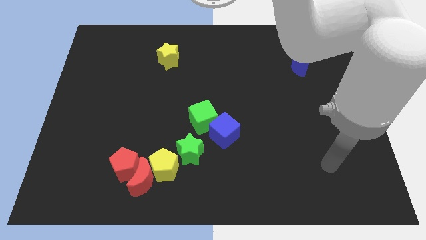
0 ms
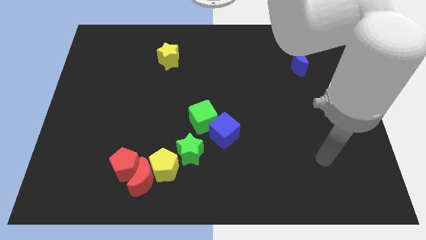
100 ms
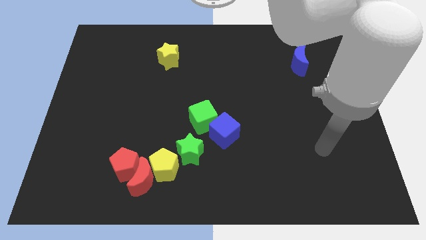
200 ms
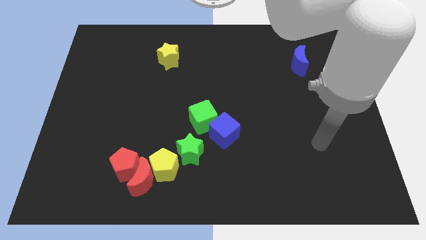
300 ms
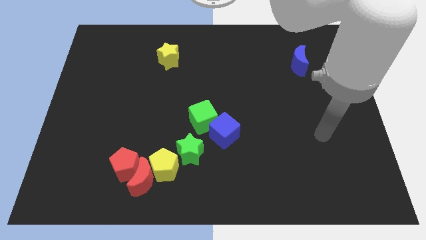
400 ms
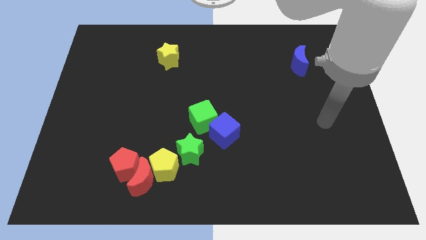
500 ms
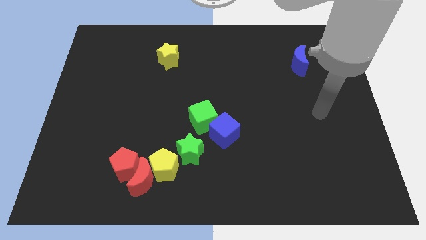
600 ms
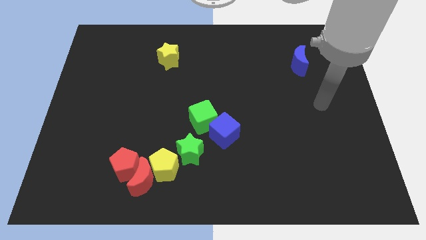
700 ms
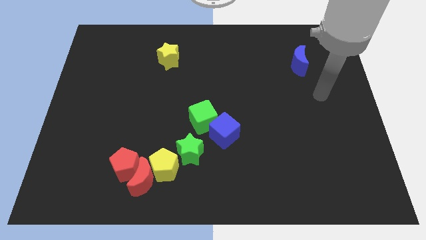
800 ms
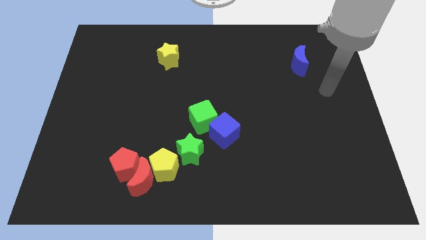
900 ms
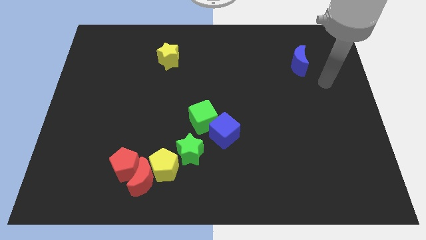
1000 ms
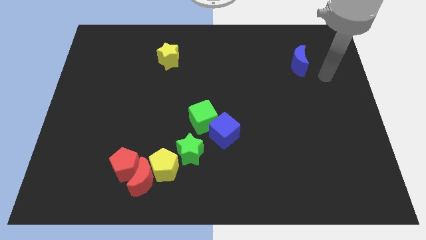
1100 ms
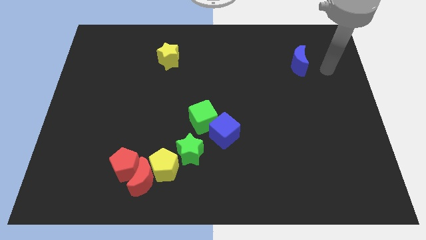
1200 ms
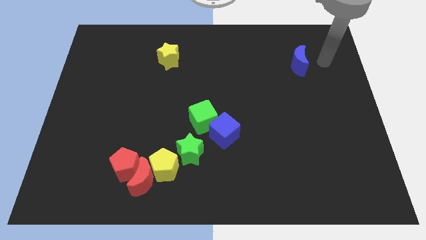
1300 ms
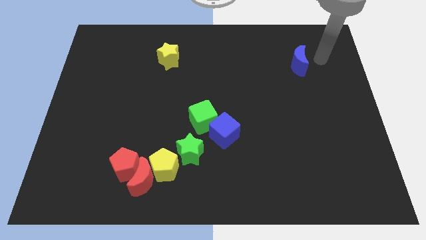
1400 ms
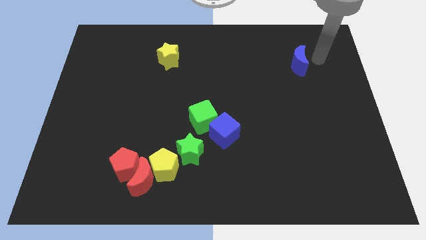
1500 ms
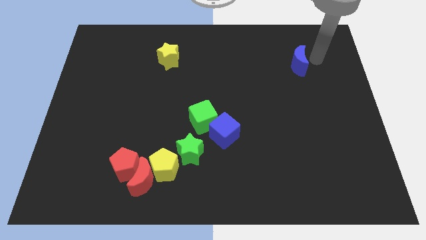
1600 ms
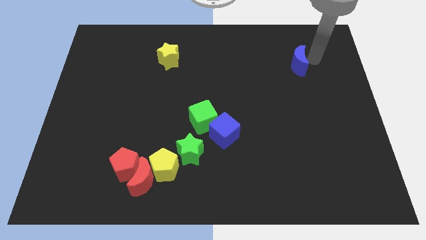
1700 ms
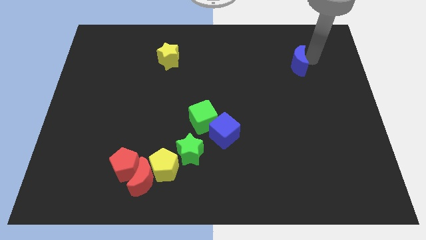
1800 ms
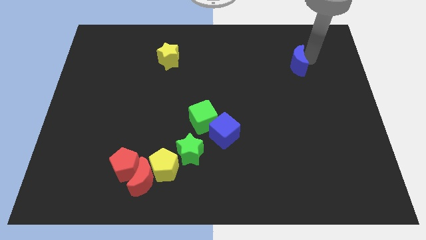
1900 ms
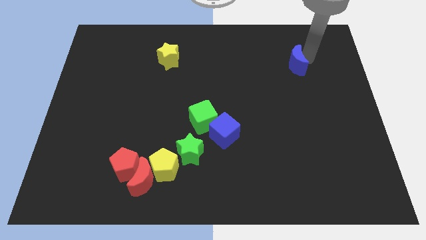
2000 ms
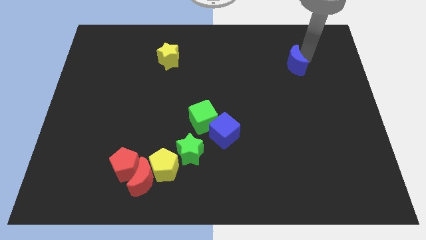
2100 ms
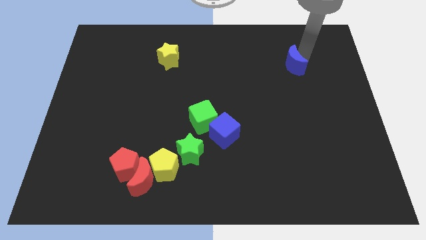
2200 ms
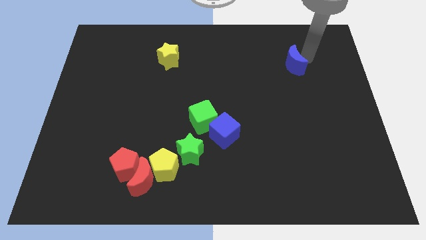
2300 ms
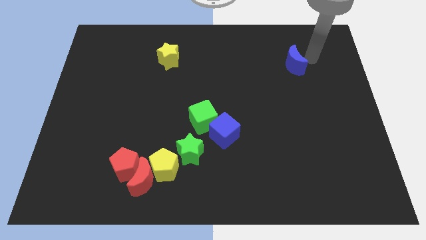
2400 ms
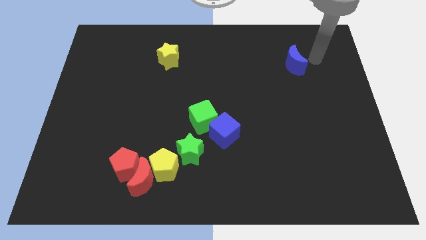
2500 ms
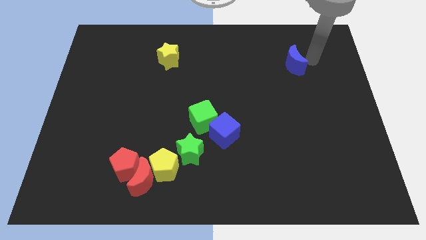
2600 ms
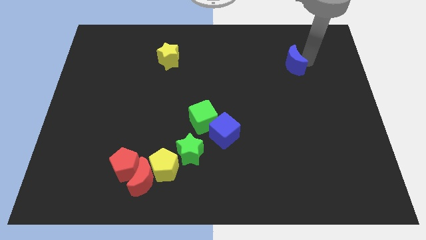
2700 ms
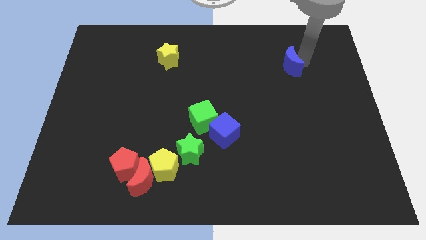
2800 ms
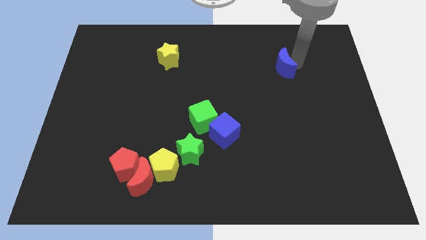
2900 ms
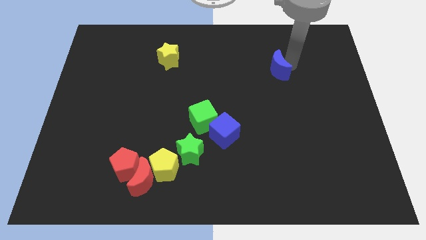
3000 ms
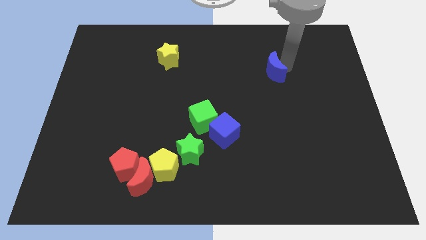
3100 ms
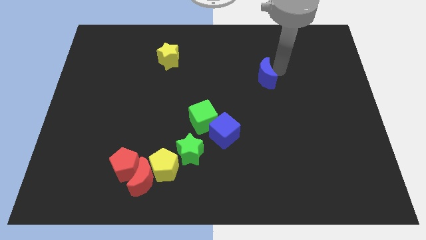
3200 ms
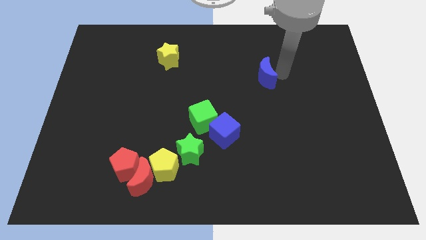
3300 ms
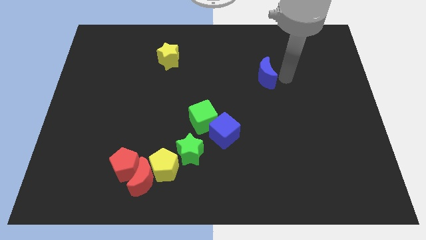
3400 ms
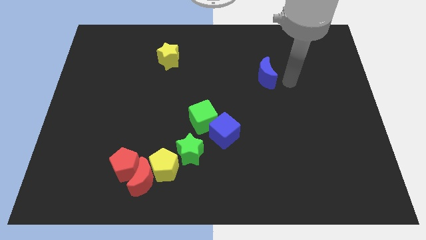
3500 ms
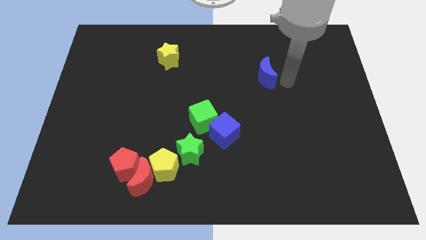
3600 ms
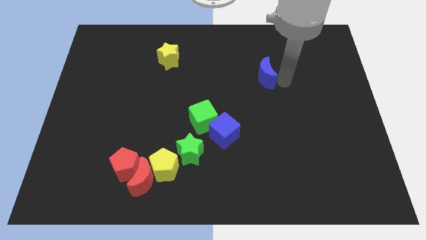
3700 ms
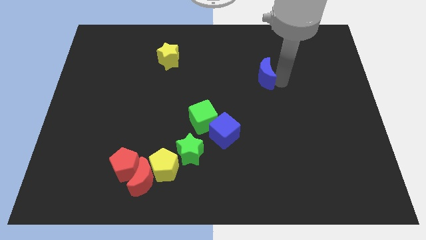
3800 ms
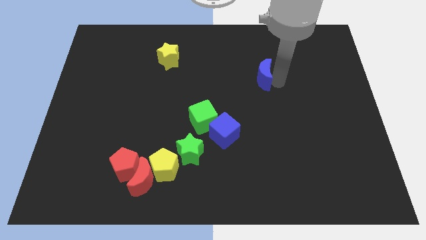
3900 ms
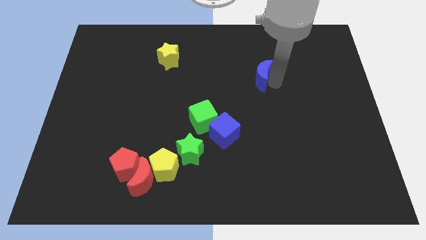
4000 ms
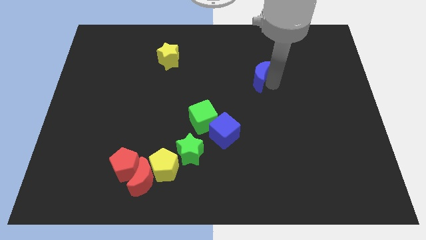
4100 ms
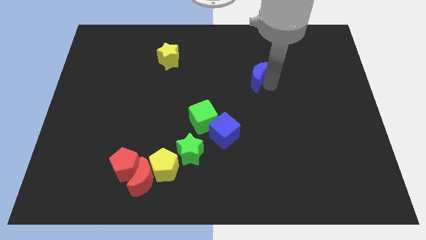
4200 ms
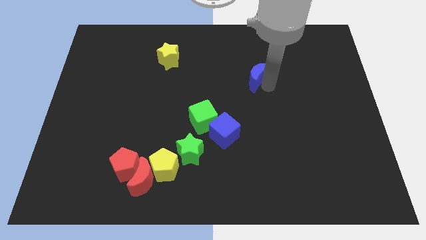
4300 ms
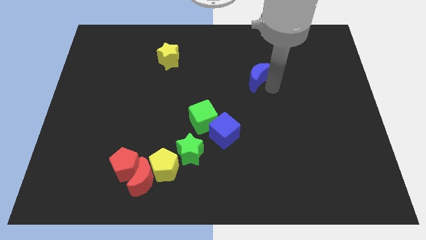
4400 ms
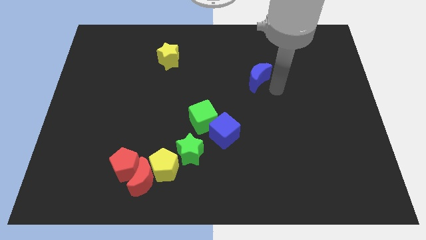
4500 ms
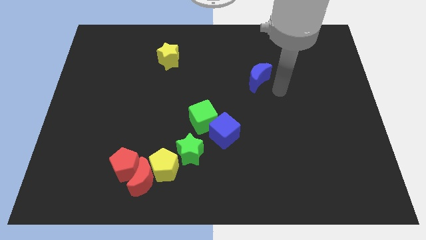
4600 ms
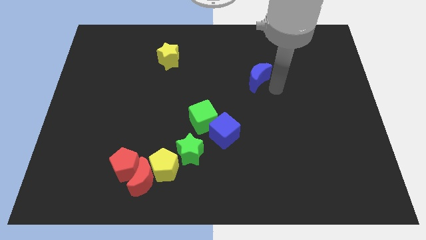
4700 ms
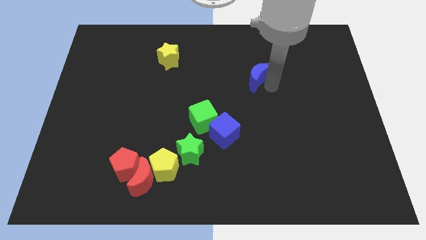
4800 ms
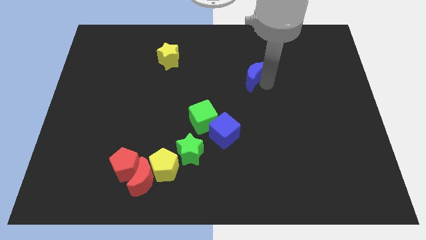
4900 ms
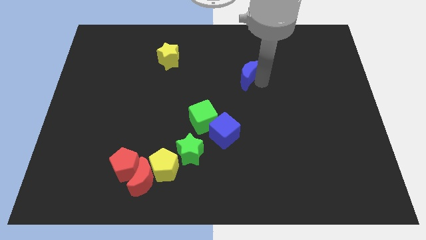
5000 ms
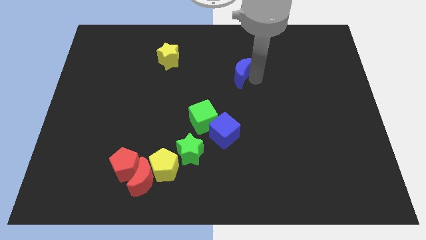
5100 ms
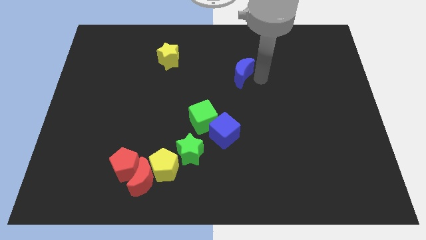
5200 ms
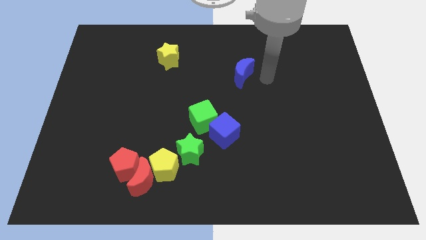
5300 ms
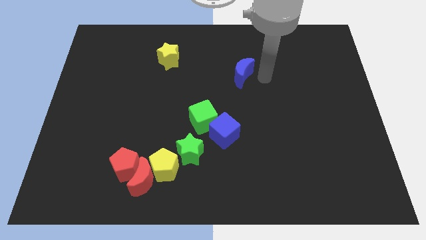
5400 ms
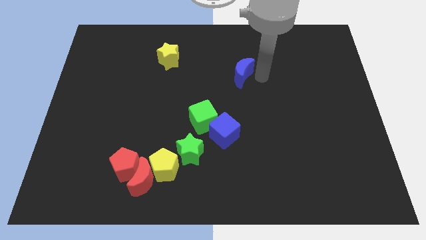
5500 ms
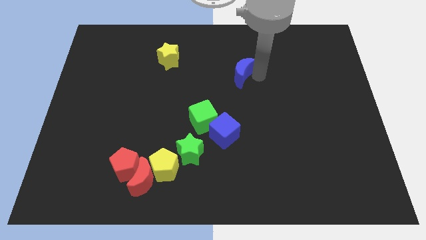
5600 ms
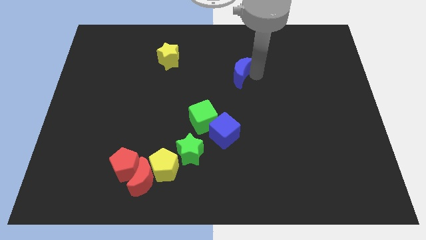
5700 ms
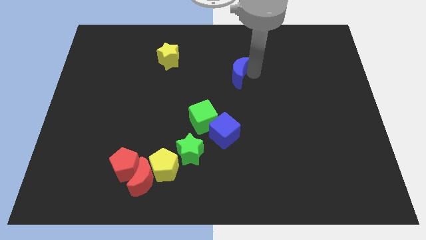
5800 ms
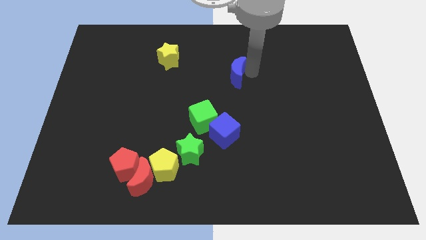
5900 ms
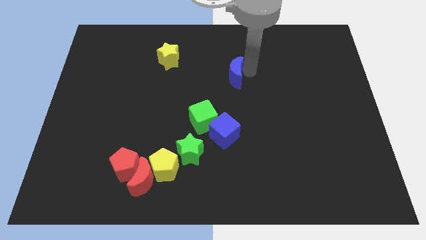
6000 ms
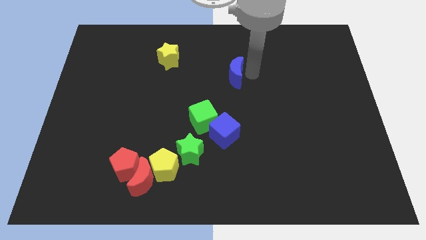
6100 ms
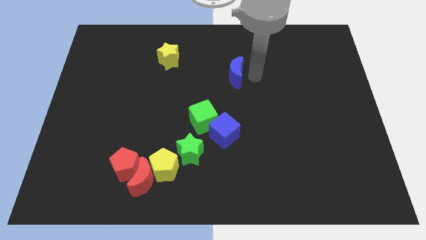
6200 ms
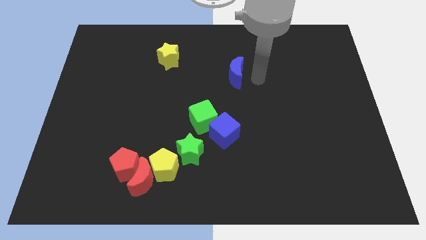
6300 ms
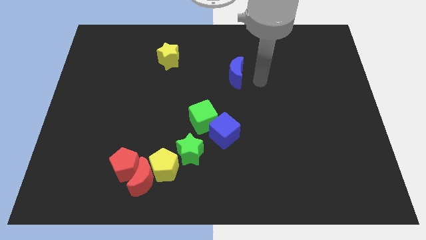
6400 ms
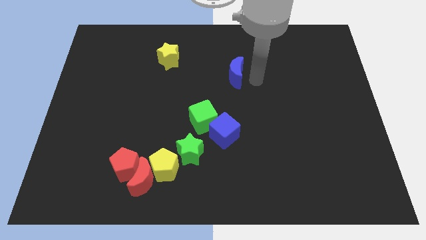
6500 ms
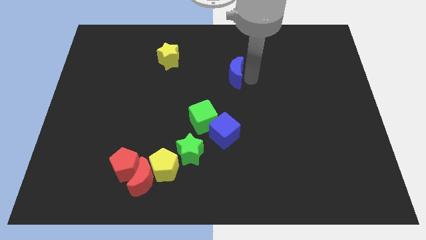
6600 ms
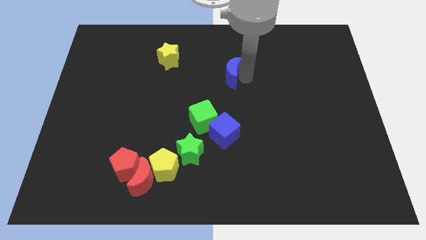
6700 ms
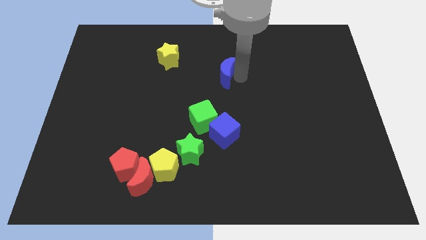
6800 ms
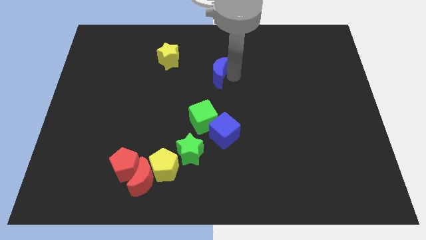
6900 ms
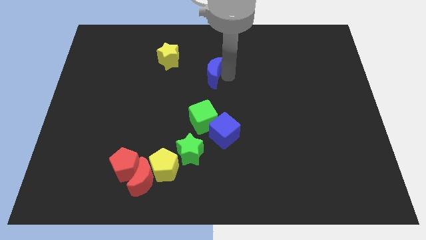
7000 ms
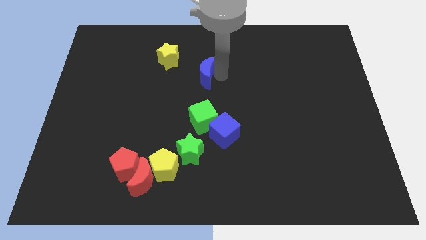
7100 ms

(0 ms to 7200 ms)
put the blue moon to the bottom right of the yellow star
